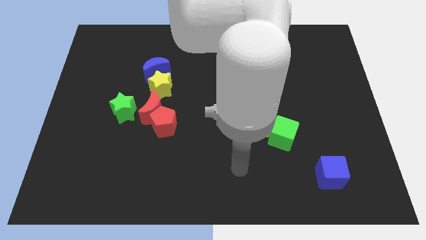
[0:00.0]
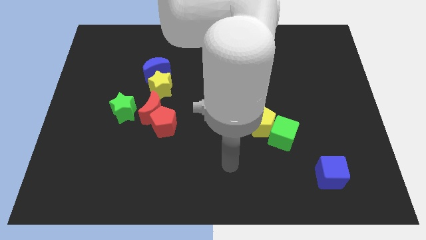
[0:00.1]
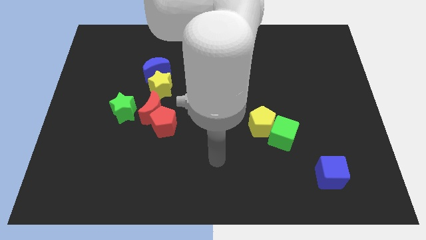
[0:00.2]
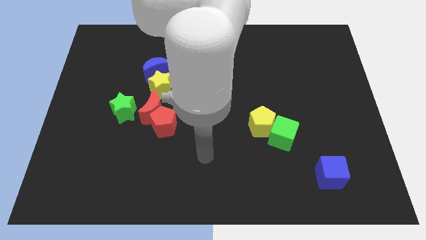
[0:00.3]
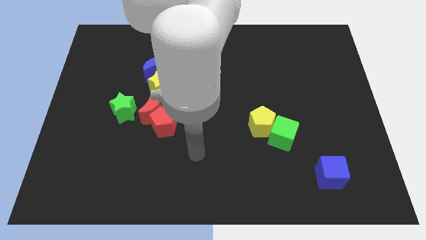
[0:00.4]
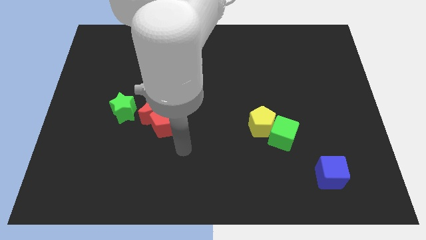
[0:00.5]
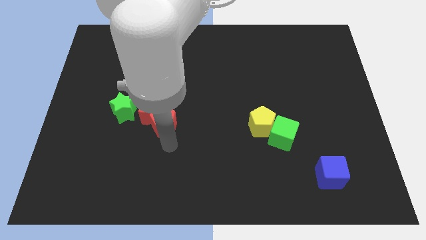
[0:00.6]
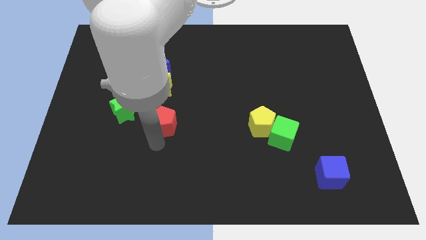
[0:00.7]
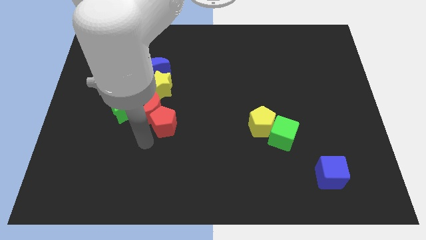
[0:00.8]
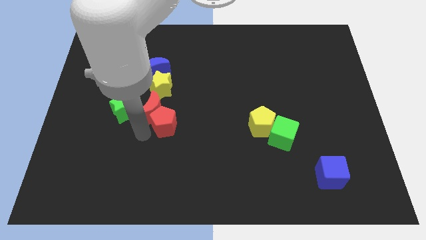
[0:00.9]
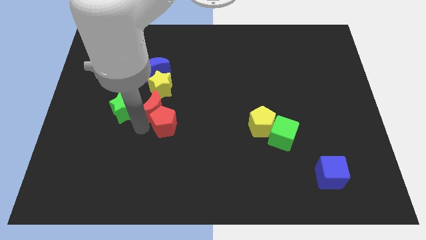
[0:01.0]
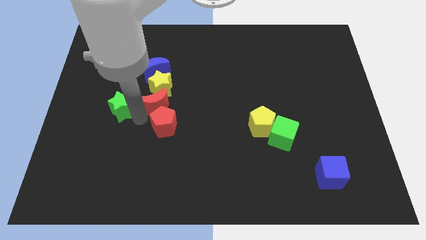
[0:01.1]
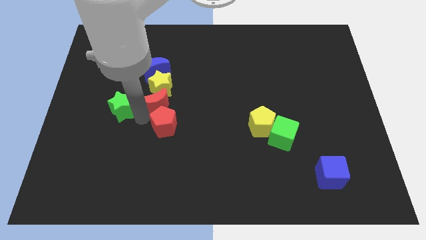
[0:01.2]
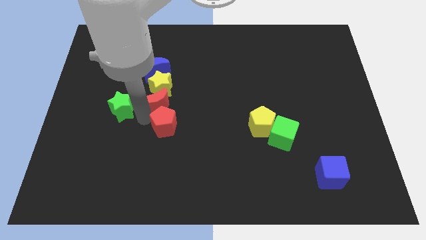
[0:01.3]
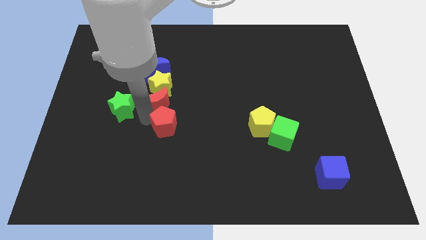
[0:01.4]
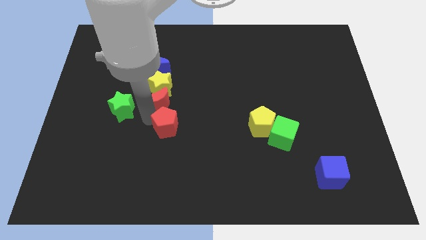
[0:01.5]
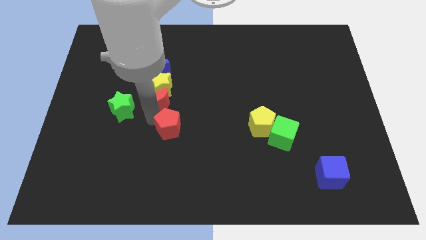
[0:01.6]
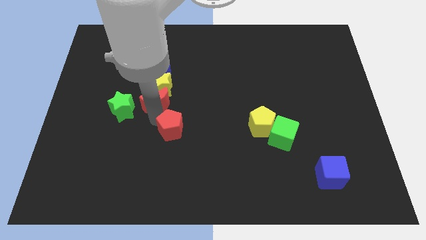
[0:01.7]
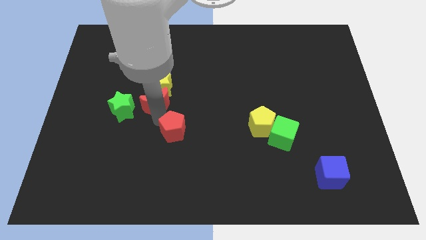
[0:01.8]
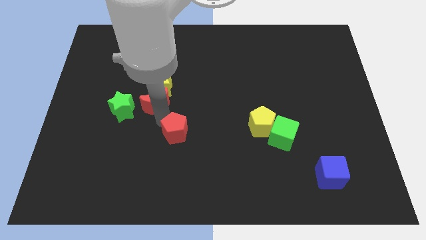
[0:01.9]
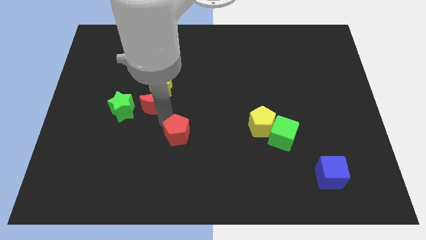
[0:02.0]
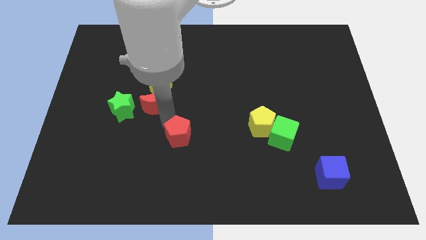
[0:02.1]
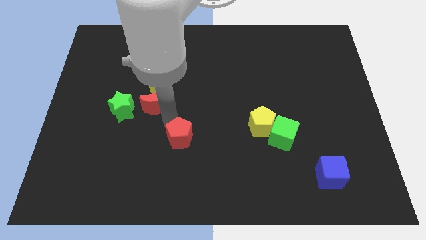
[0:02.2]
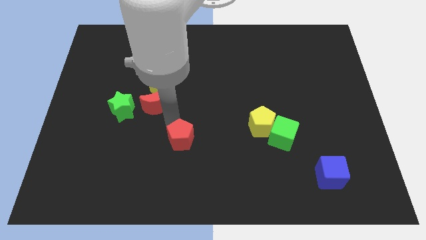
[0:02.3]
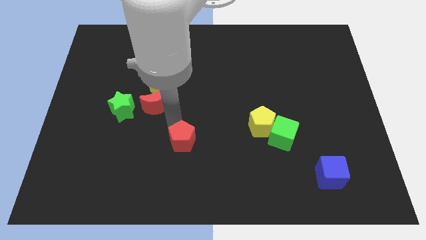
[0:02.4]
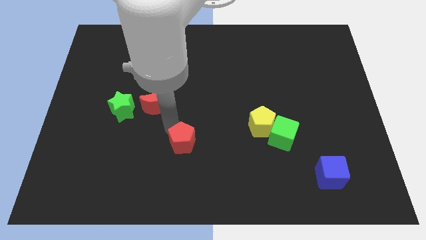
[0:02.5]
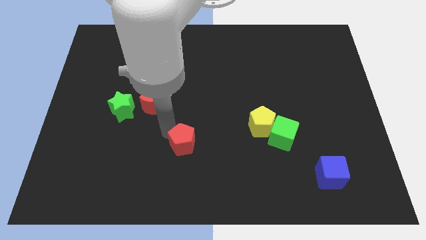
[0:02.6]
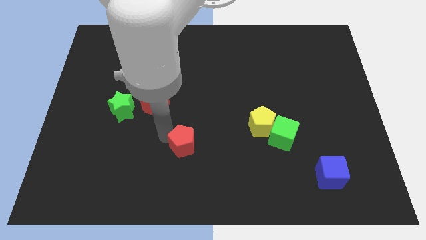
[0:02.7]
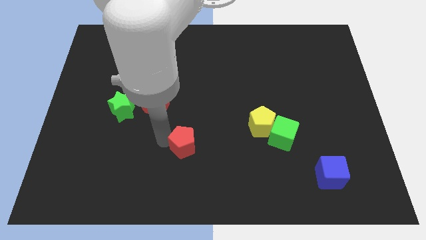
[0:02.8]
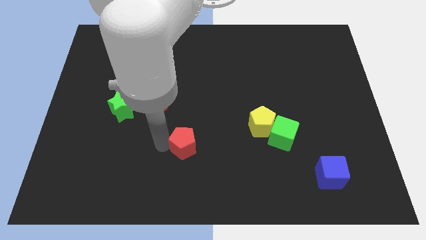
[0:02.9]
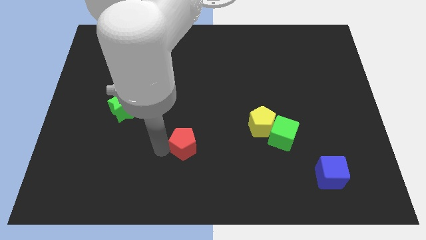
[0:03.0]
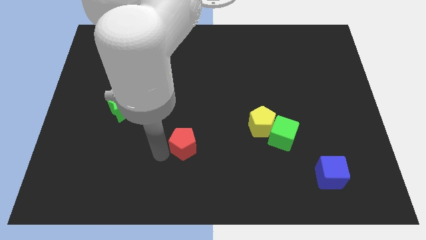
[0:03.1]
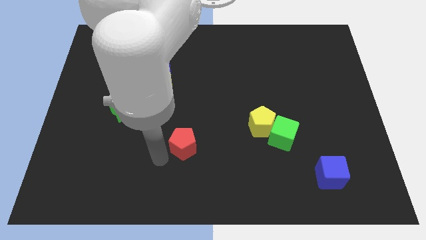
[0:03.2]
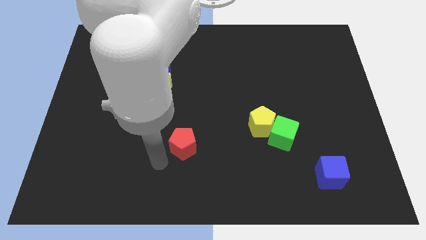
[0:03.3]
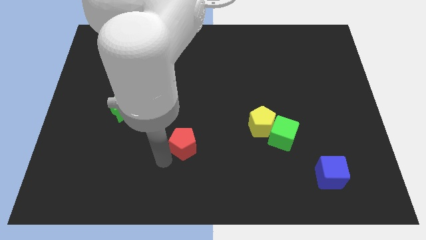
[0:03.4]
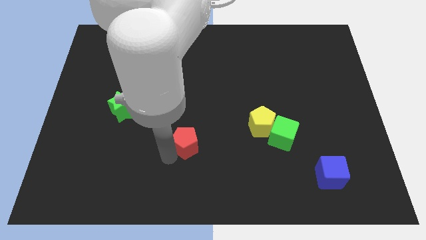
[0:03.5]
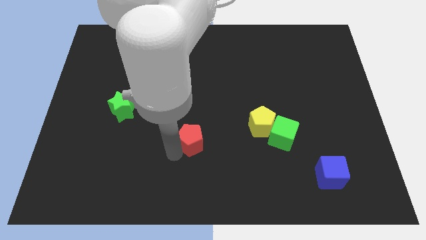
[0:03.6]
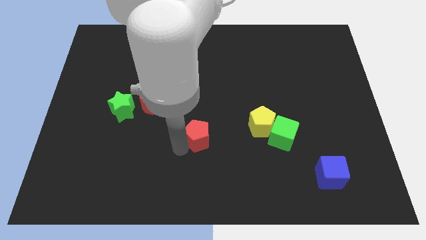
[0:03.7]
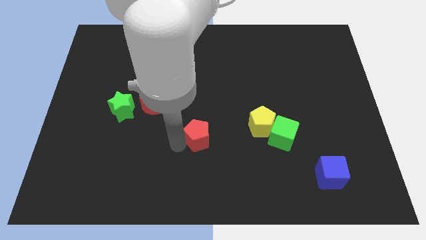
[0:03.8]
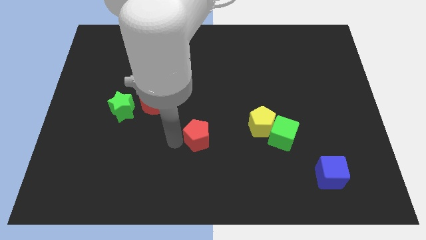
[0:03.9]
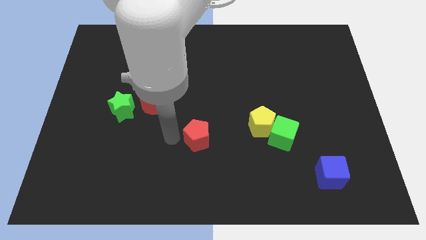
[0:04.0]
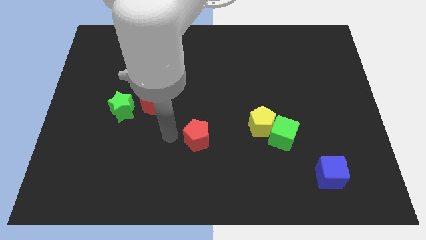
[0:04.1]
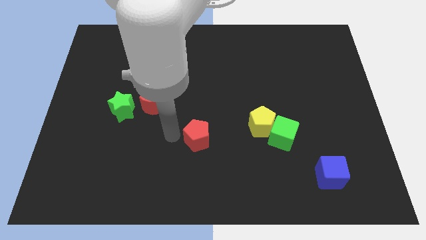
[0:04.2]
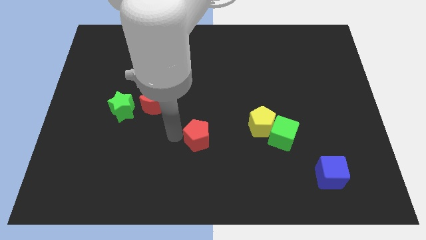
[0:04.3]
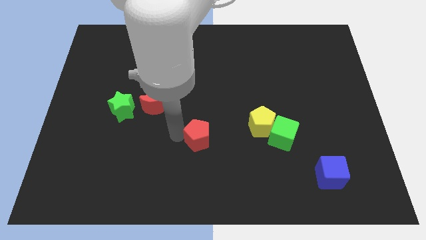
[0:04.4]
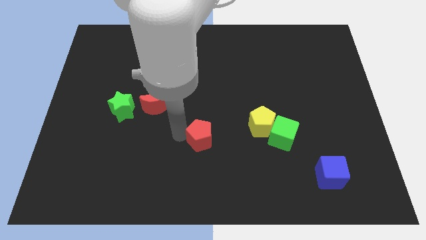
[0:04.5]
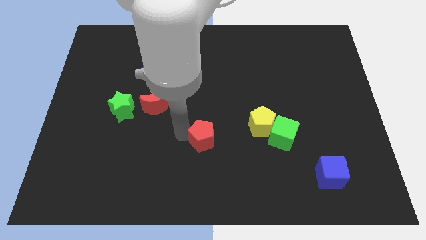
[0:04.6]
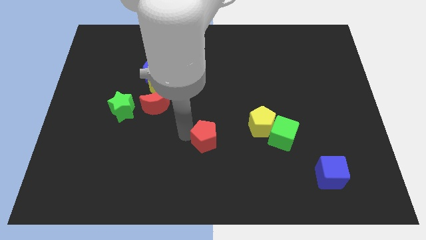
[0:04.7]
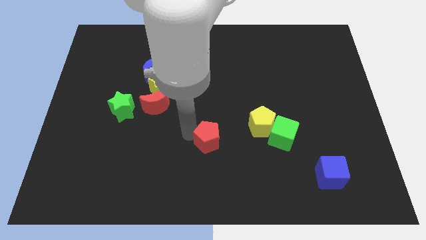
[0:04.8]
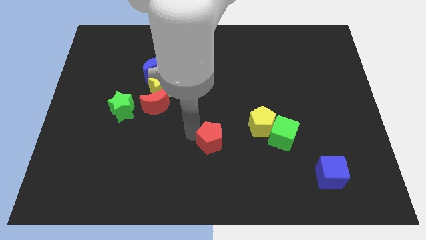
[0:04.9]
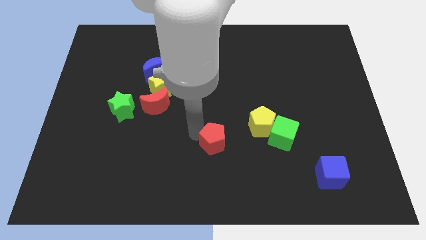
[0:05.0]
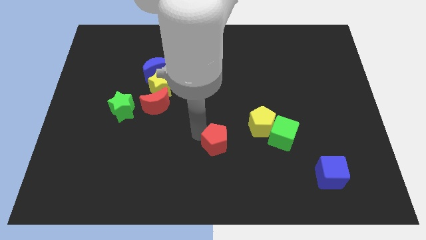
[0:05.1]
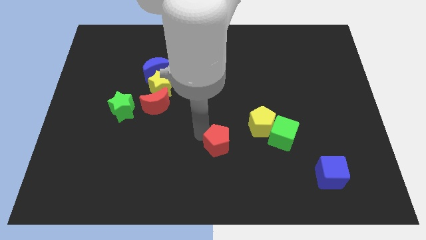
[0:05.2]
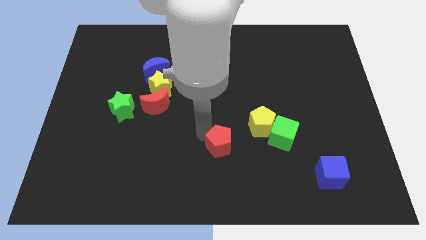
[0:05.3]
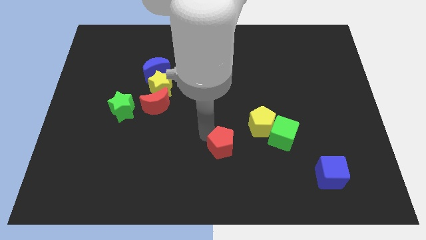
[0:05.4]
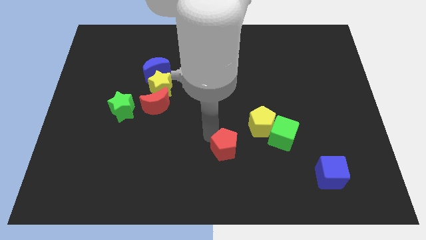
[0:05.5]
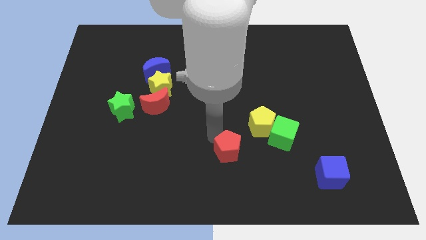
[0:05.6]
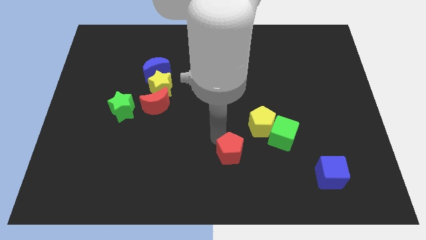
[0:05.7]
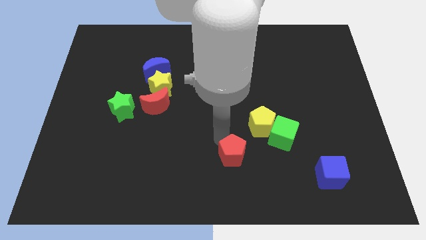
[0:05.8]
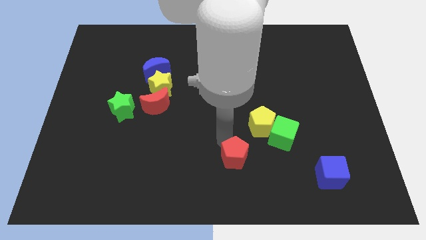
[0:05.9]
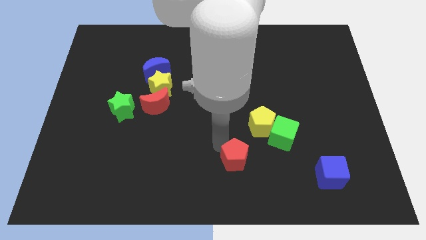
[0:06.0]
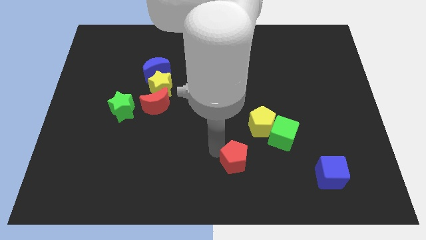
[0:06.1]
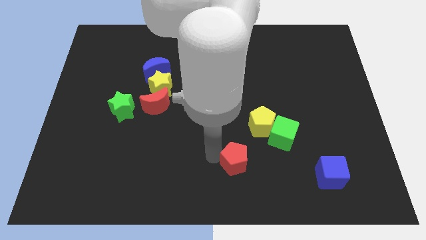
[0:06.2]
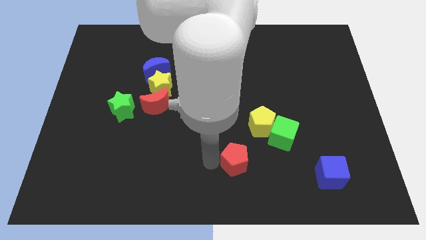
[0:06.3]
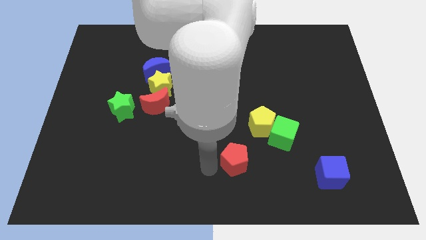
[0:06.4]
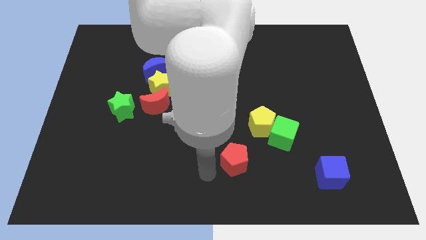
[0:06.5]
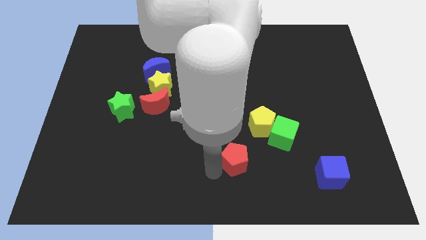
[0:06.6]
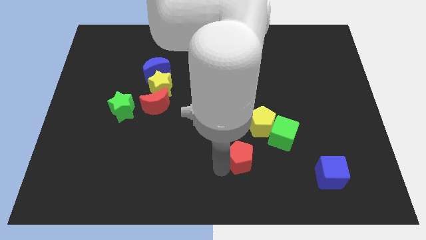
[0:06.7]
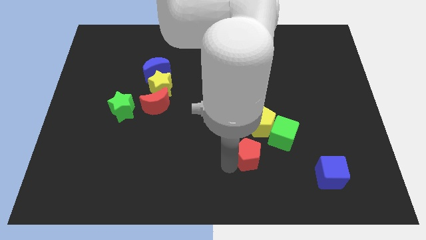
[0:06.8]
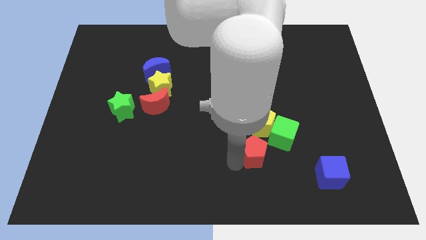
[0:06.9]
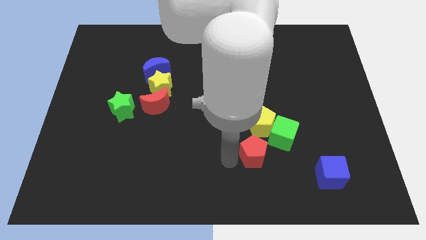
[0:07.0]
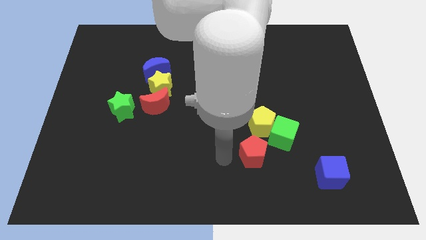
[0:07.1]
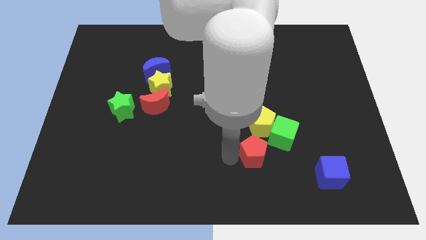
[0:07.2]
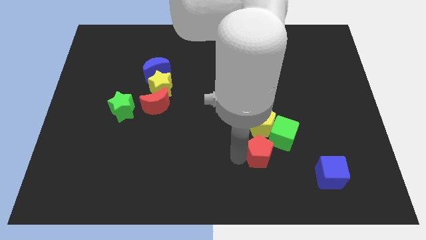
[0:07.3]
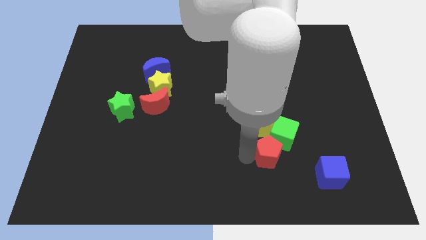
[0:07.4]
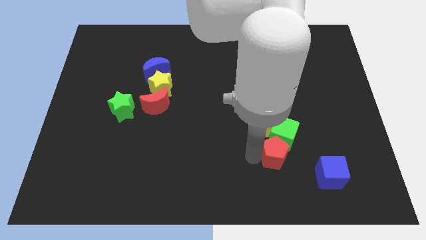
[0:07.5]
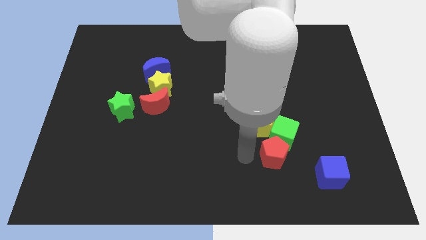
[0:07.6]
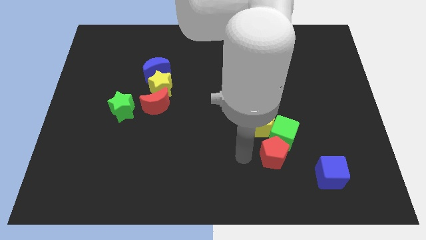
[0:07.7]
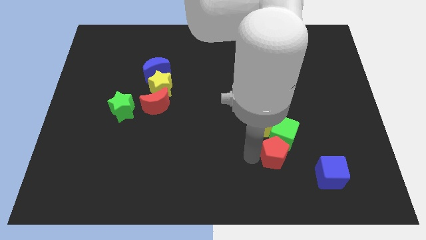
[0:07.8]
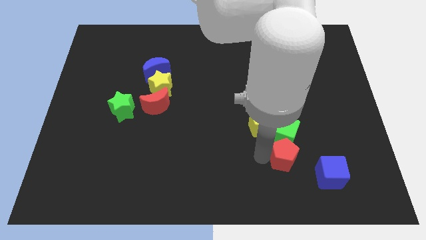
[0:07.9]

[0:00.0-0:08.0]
slide the red pentagon to the bottom right of the green cube
